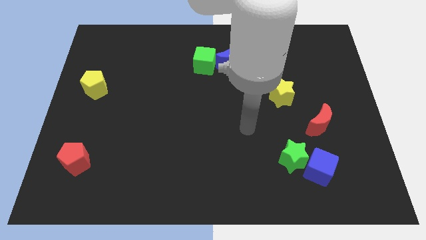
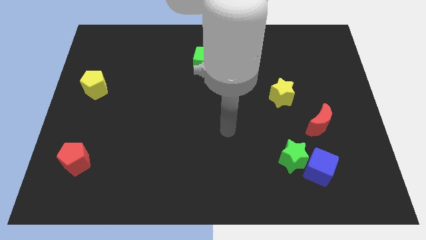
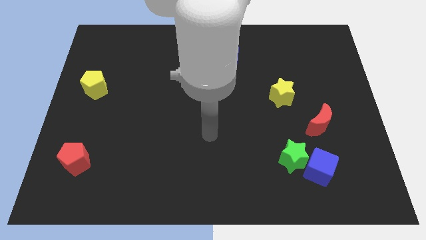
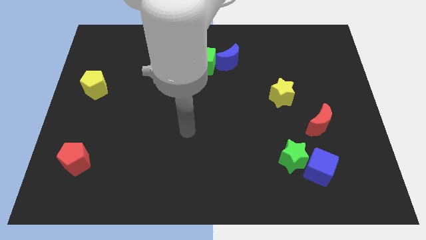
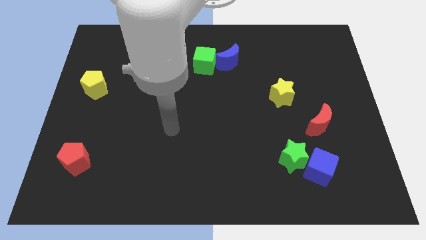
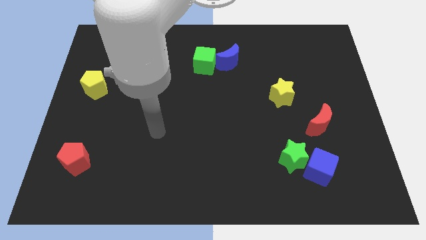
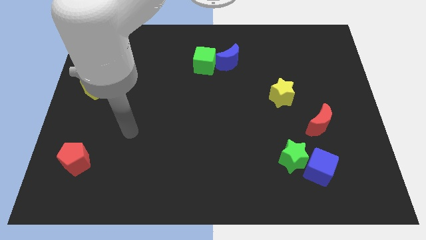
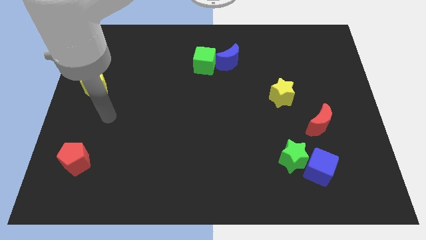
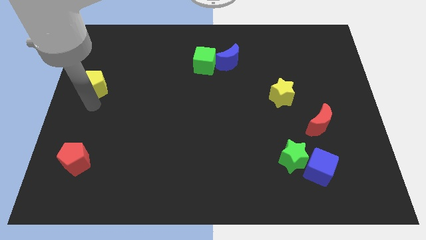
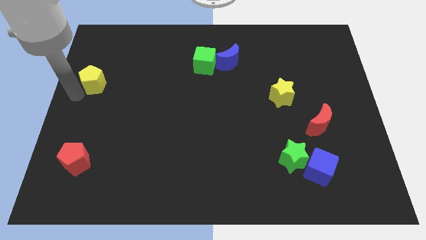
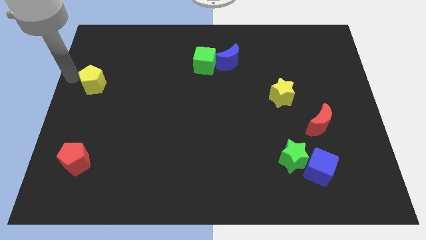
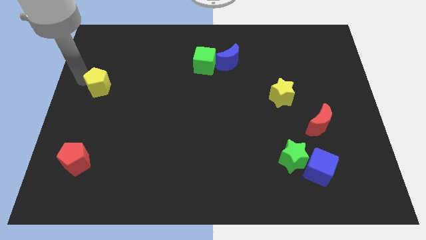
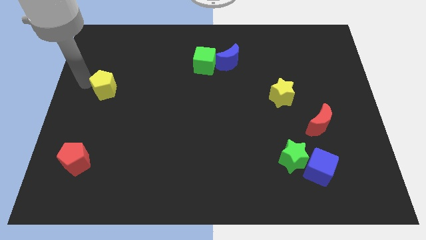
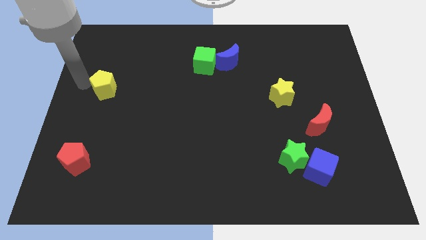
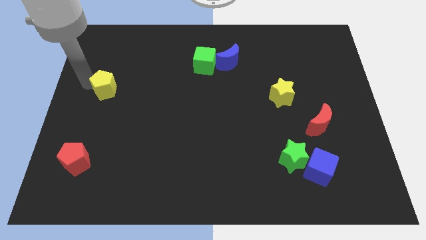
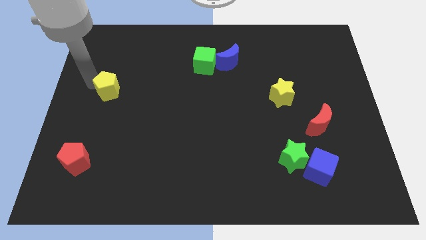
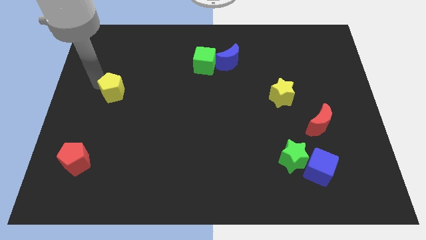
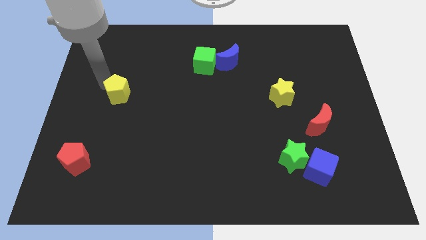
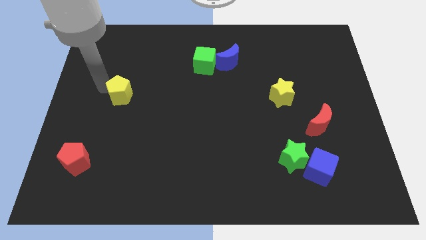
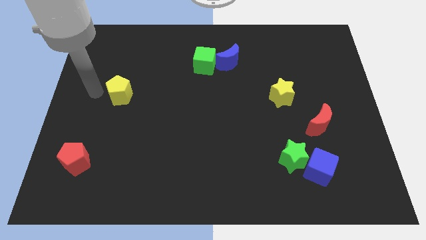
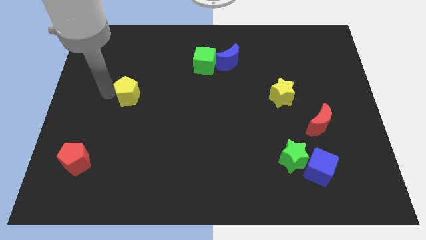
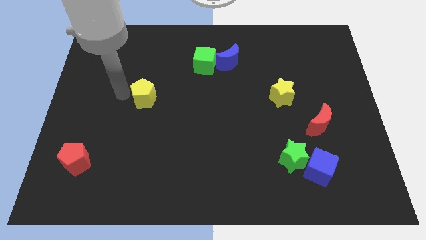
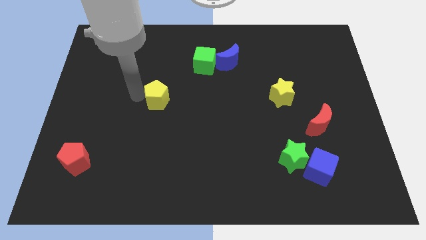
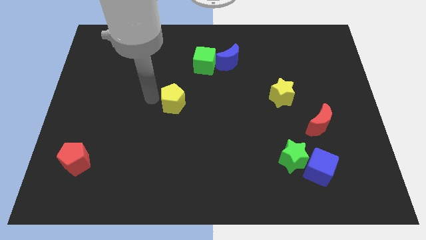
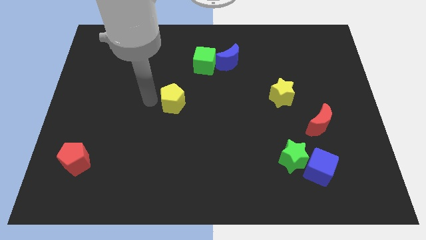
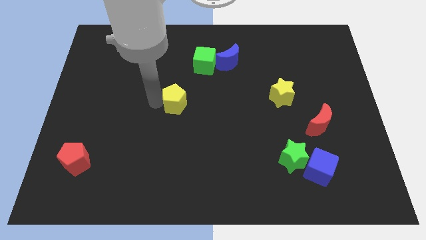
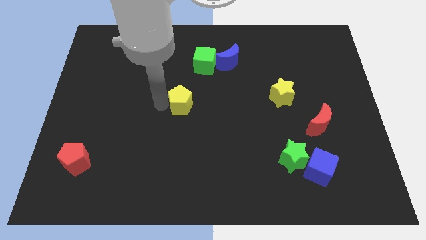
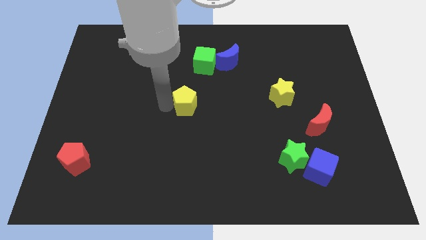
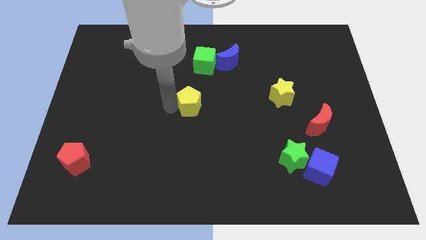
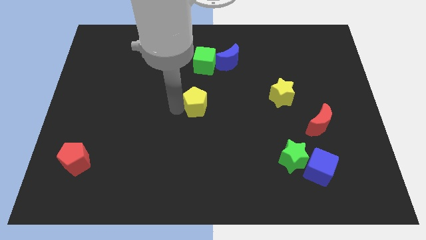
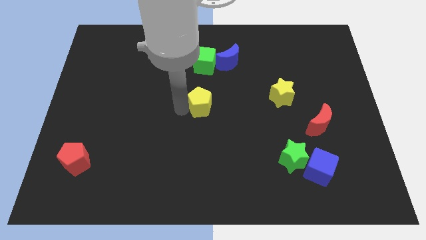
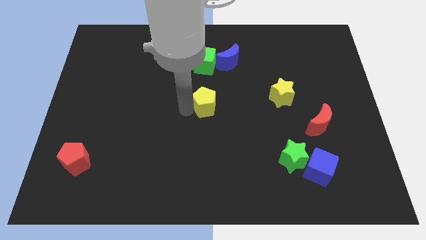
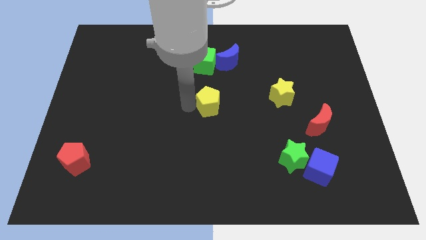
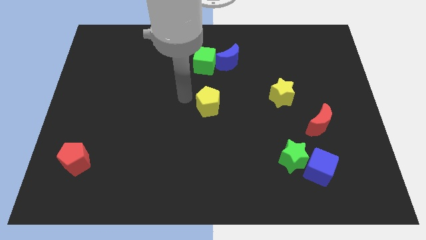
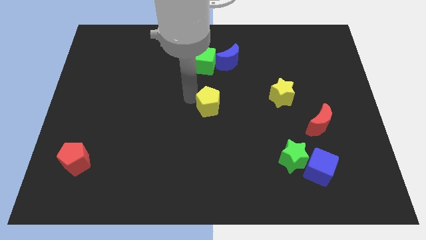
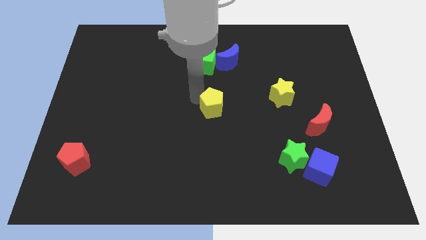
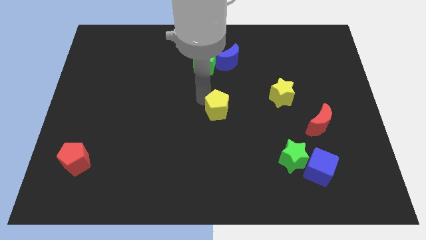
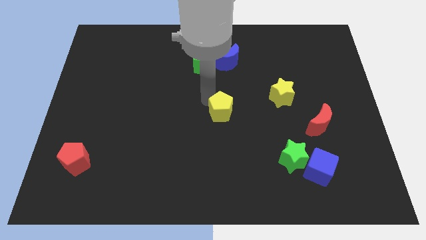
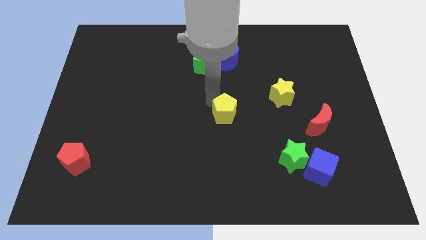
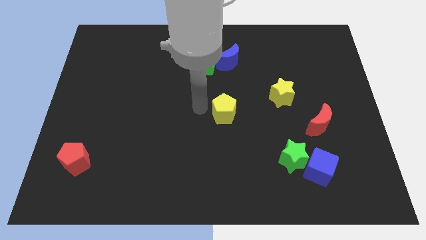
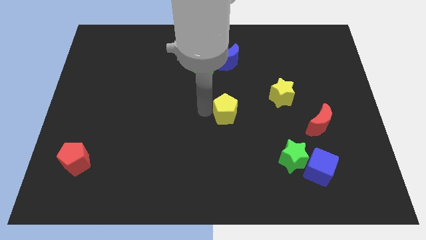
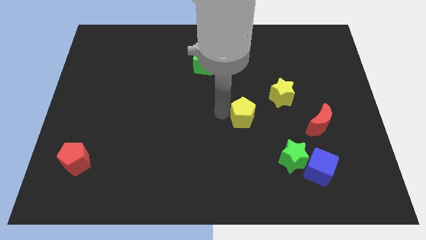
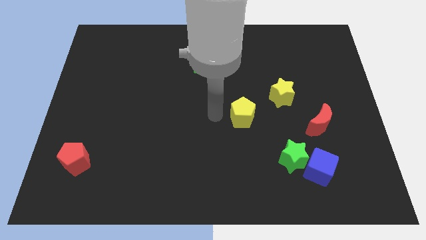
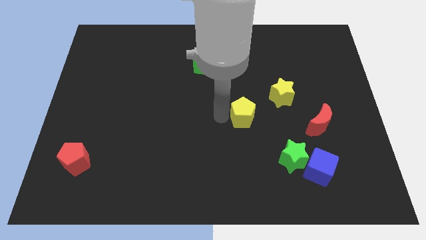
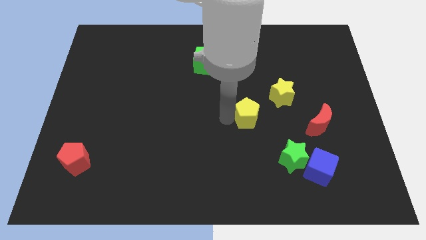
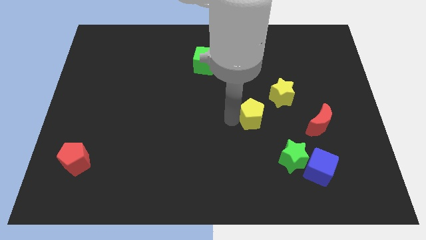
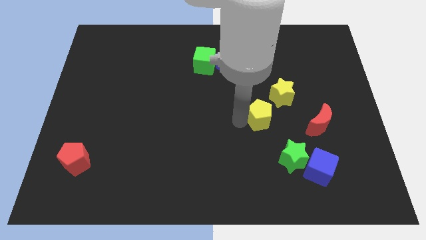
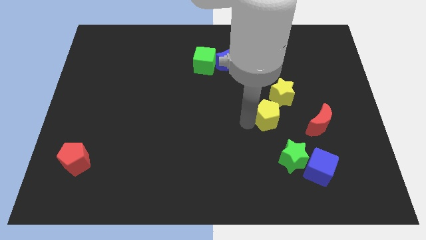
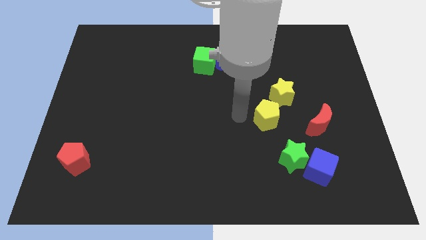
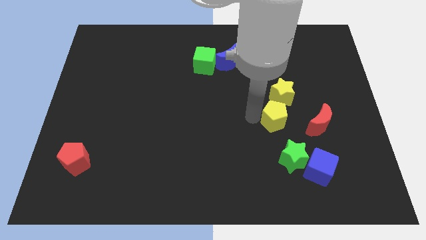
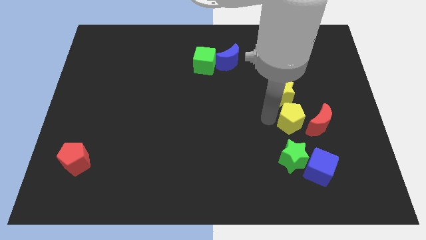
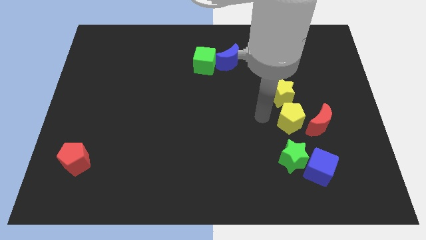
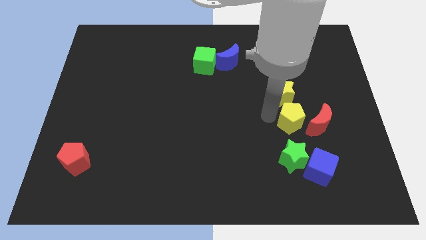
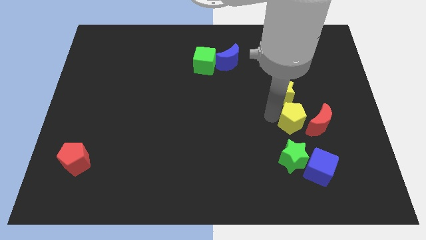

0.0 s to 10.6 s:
put the yellow pentagon next to the red moon

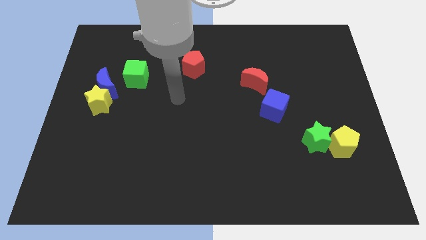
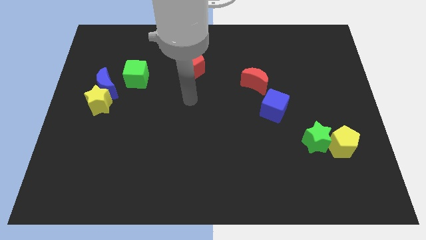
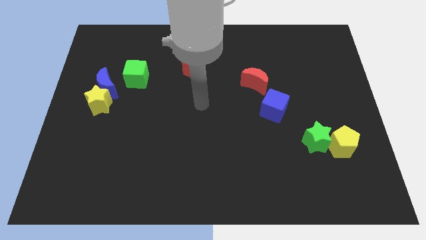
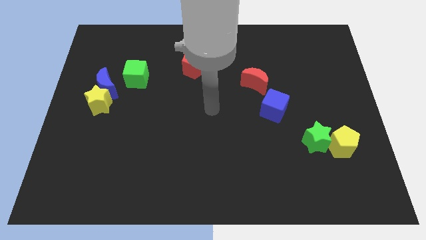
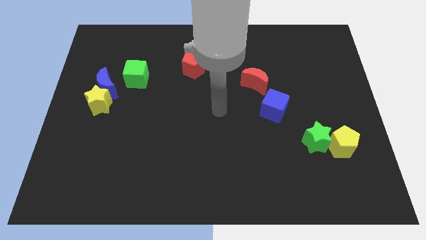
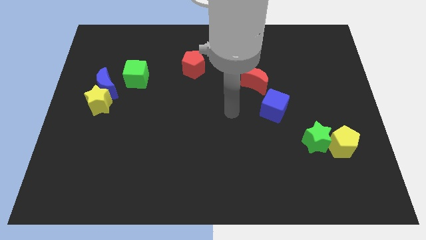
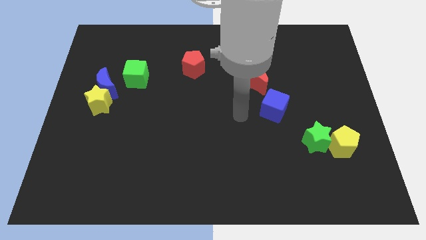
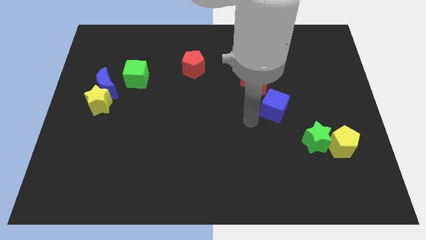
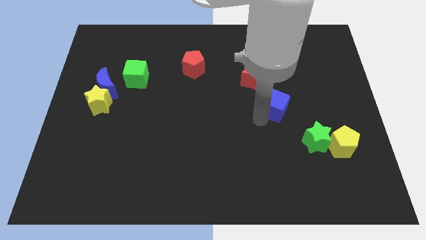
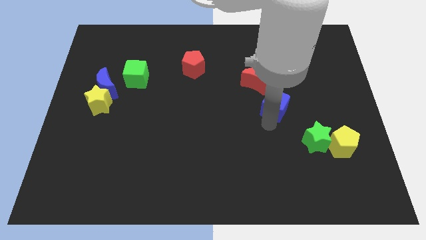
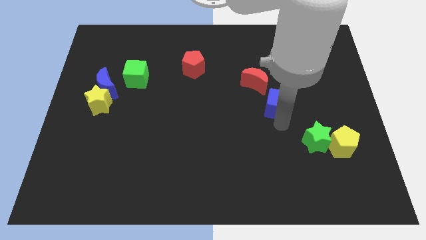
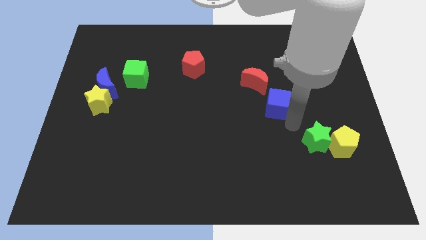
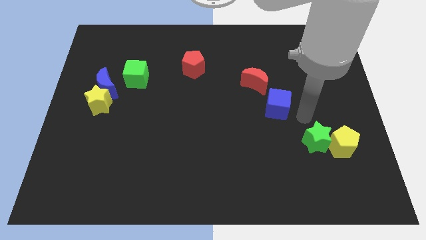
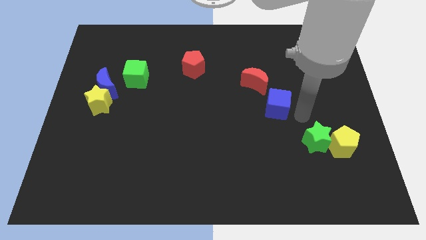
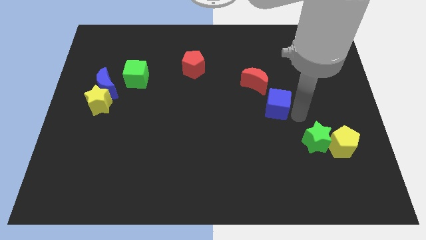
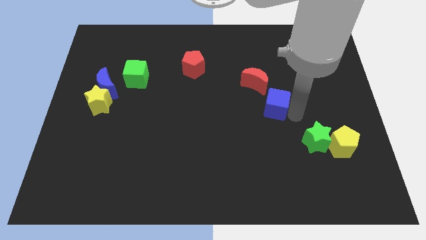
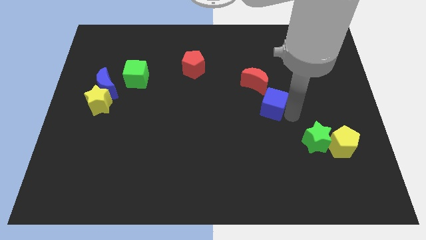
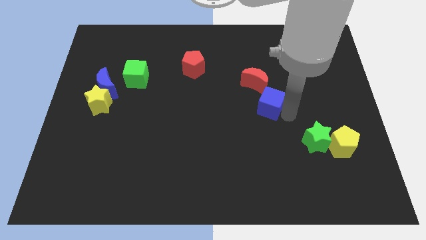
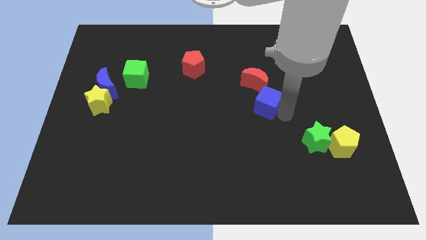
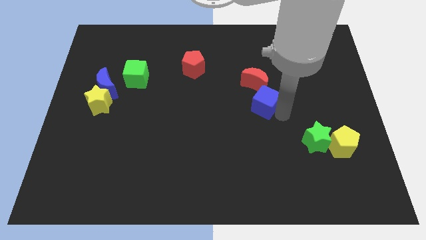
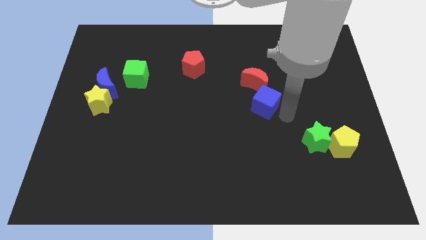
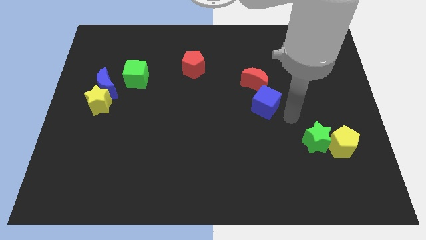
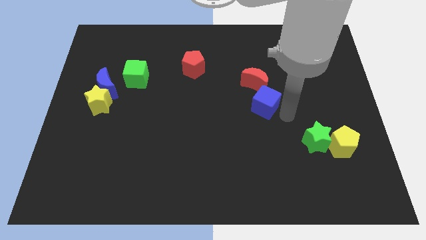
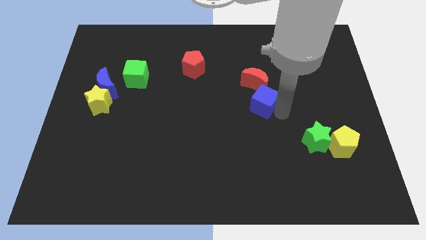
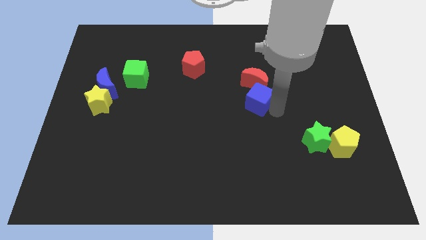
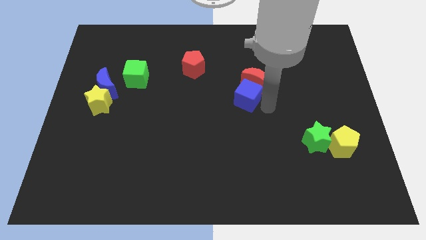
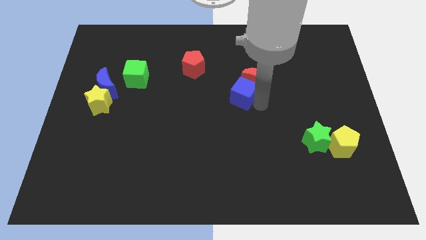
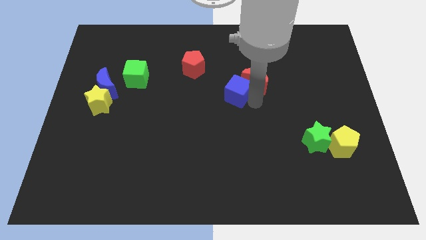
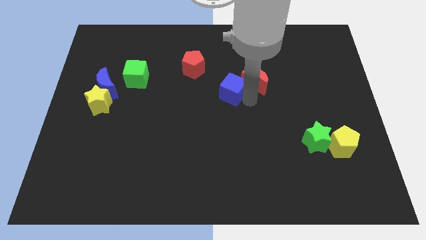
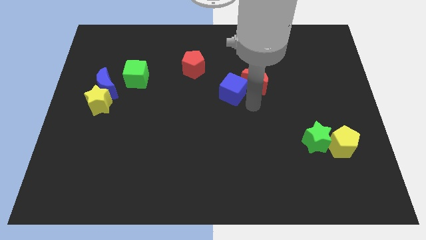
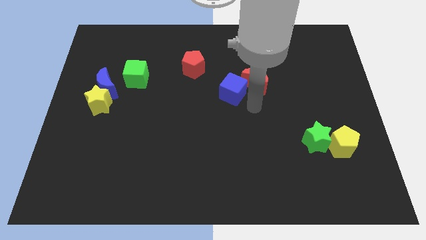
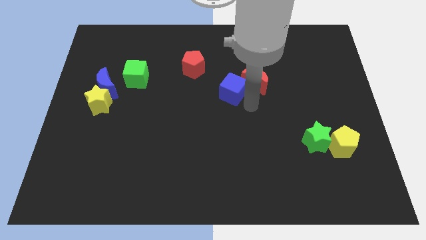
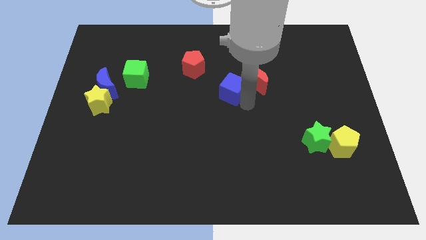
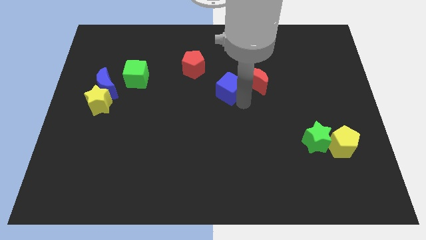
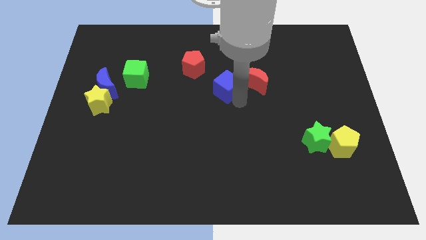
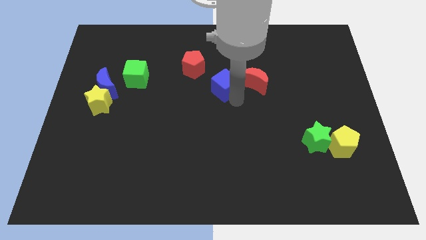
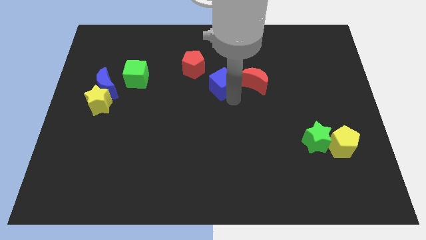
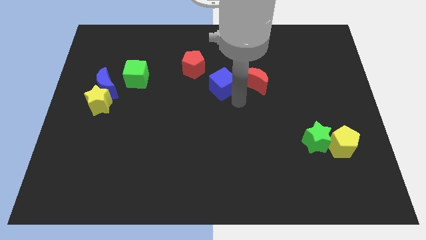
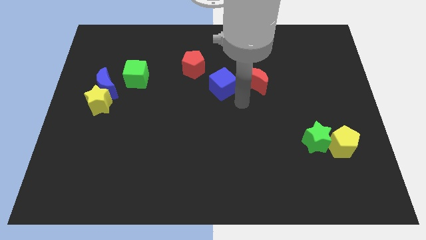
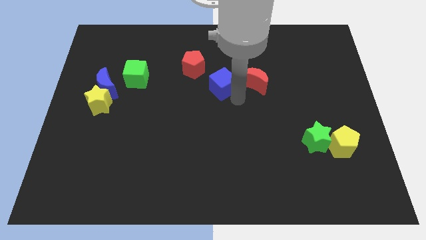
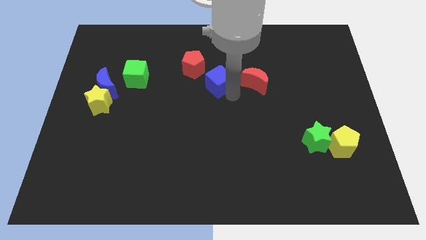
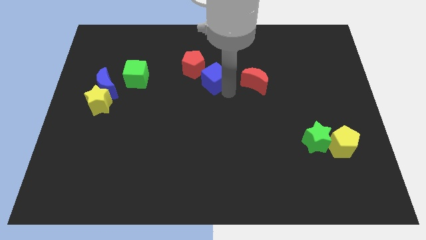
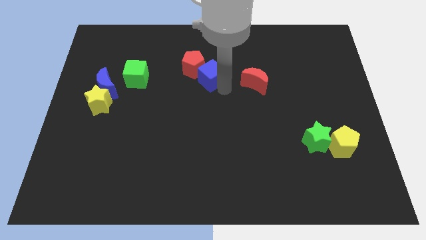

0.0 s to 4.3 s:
push the blue cube to the red pentagon
